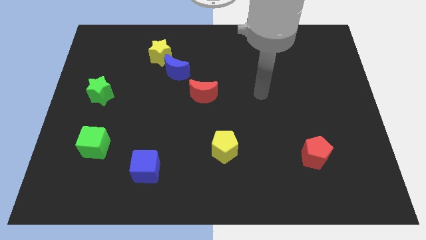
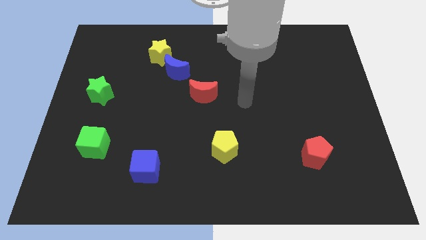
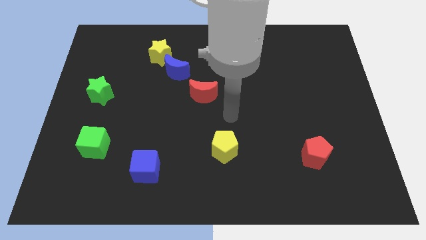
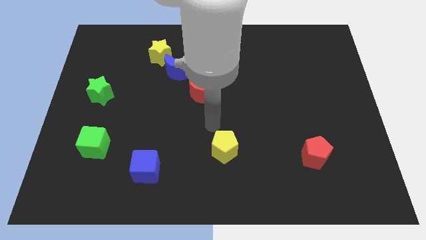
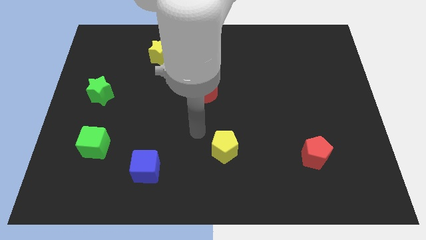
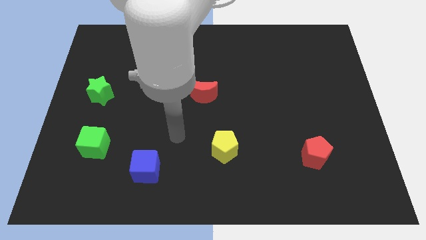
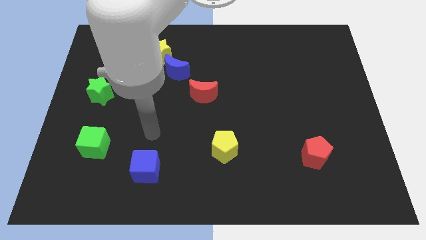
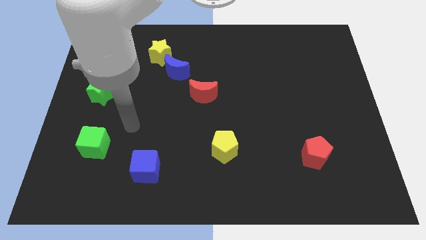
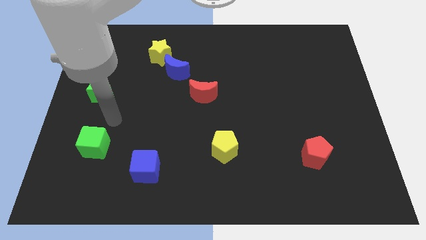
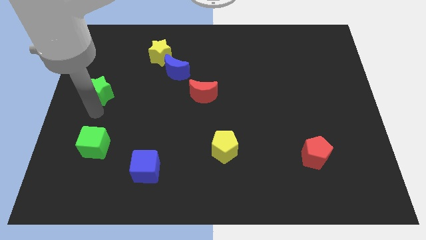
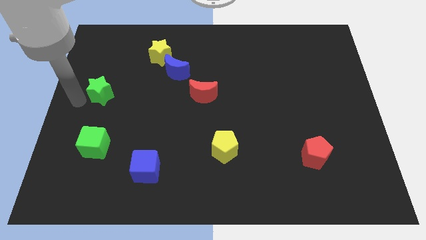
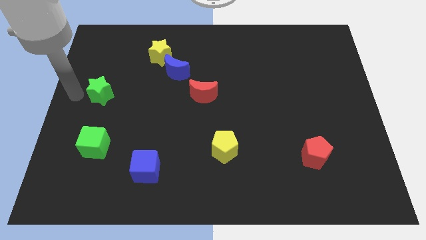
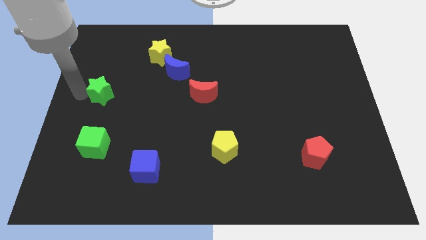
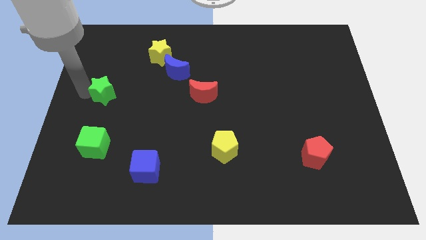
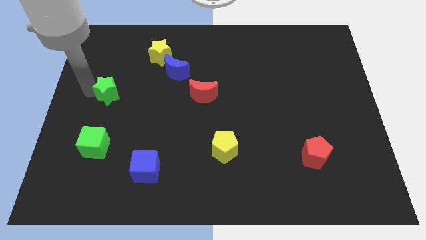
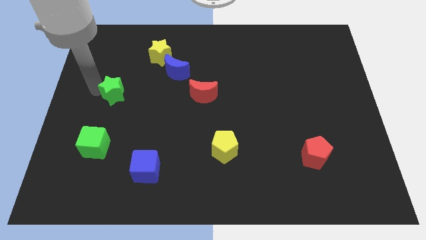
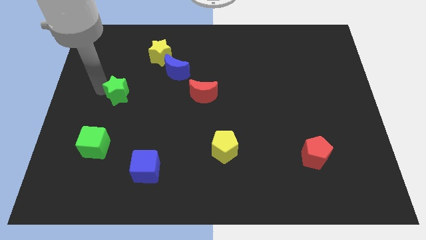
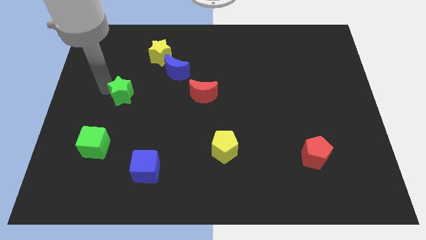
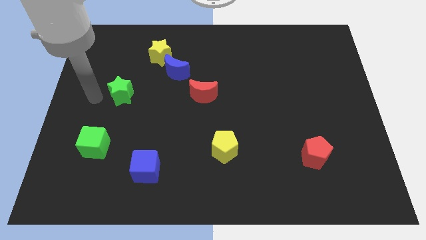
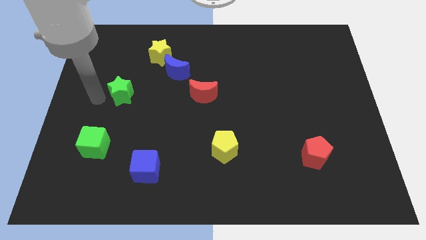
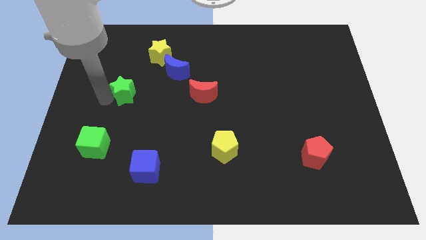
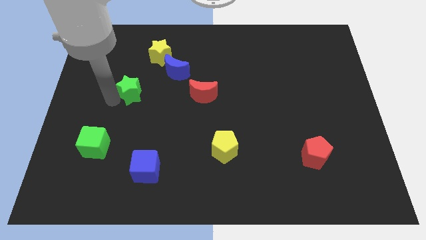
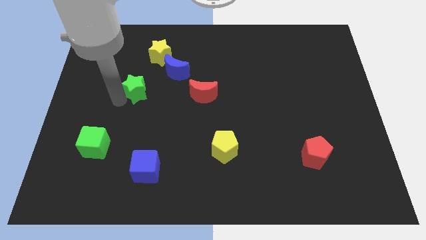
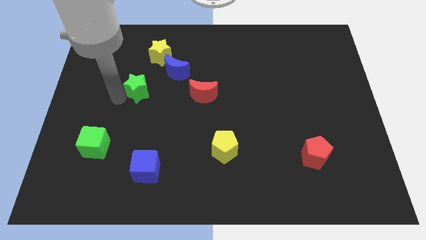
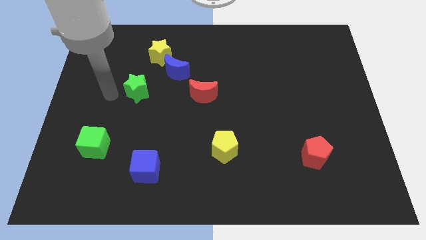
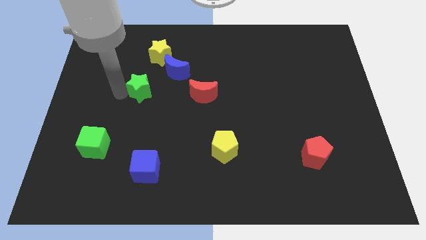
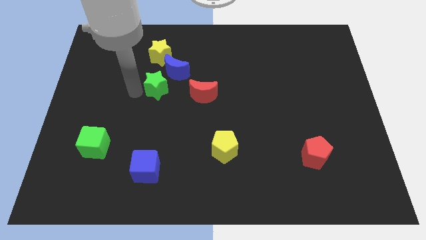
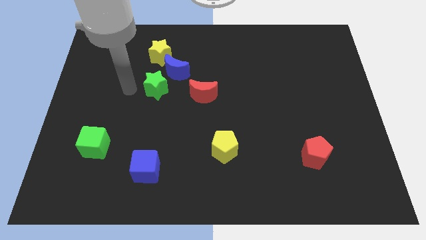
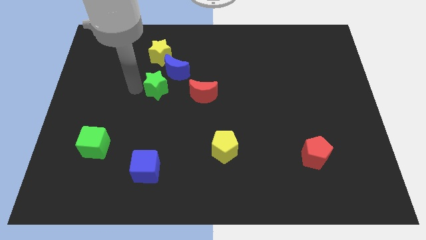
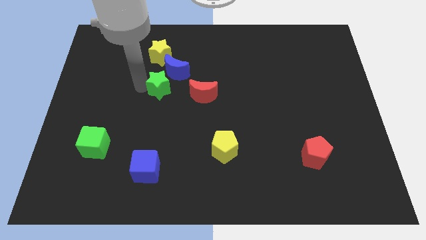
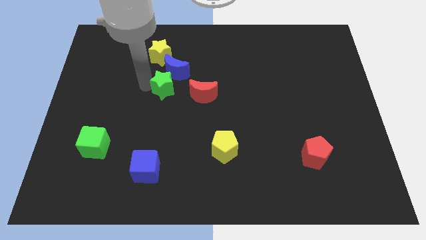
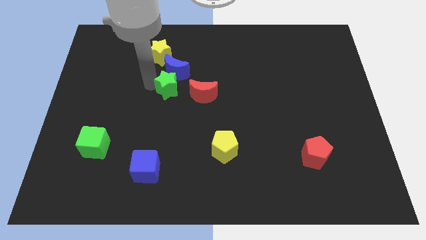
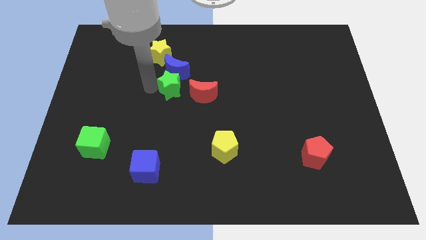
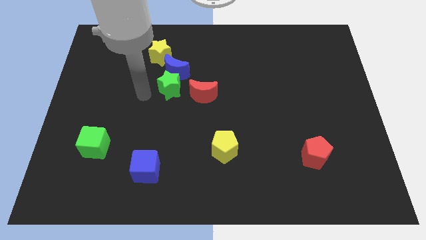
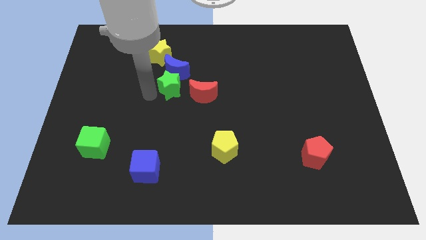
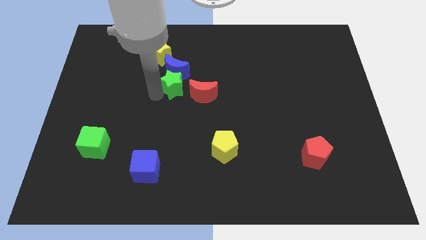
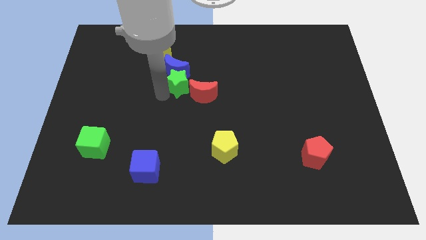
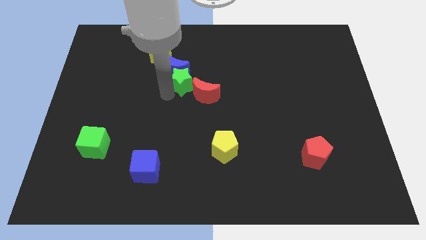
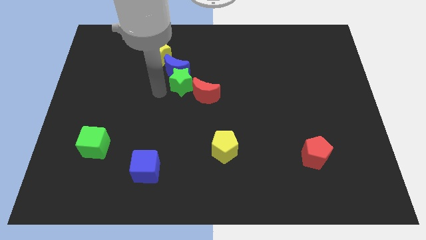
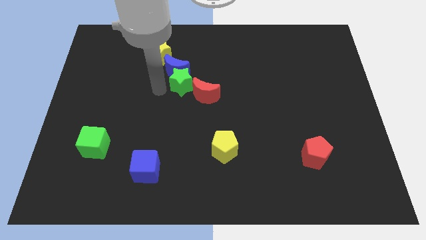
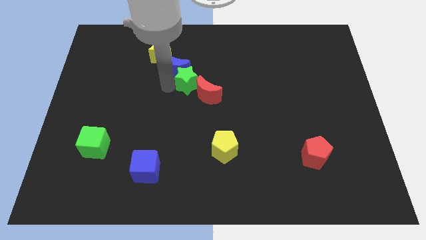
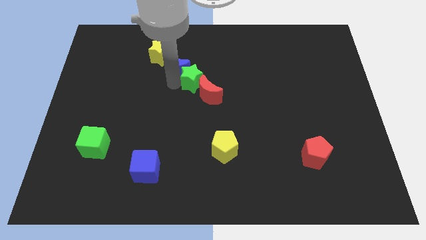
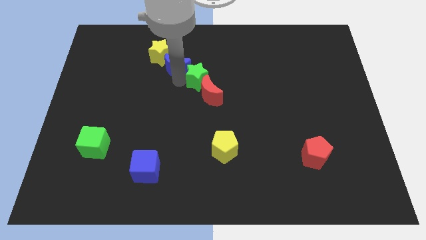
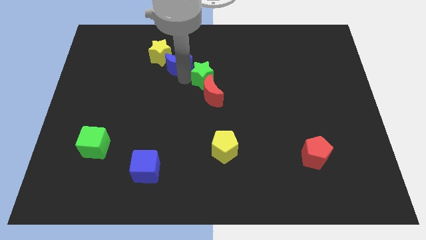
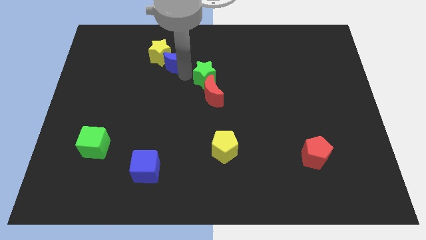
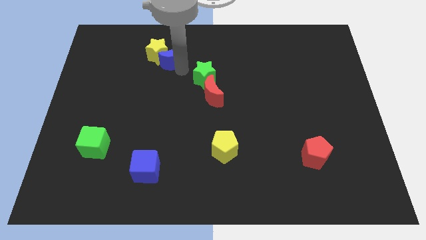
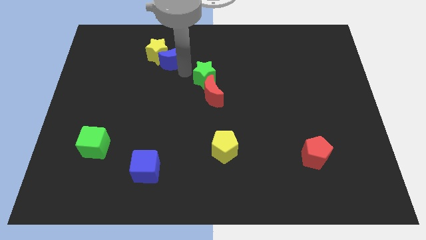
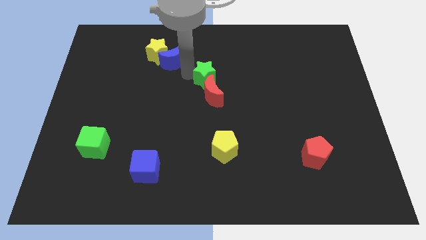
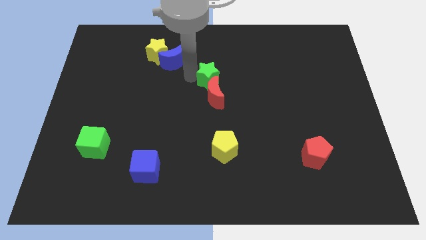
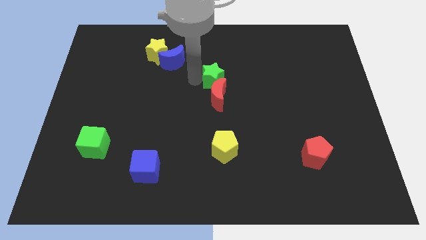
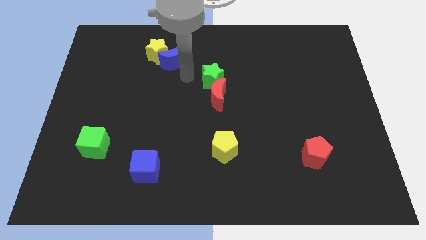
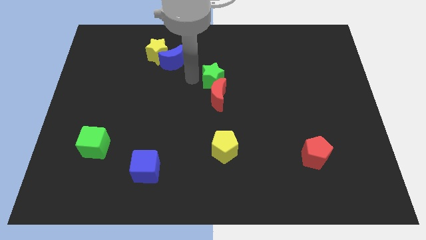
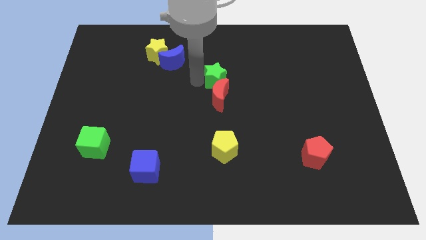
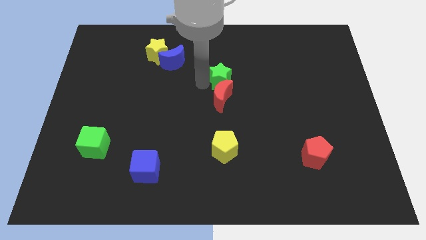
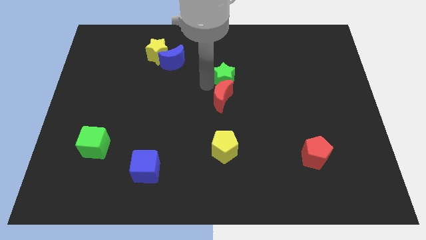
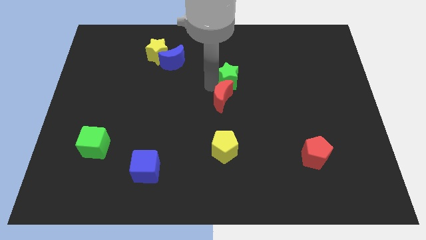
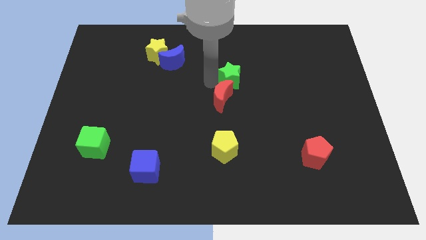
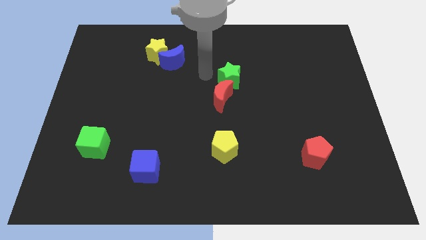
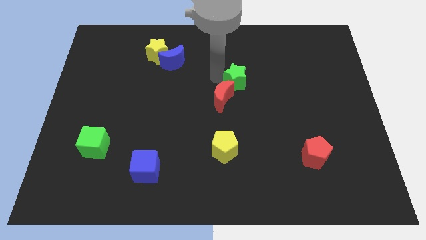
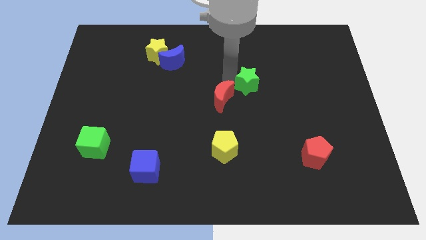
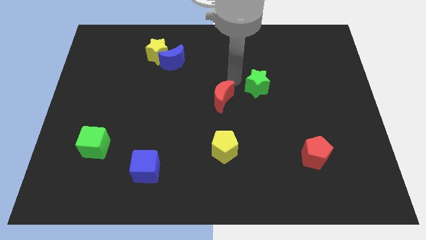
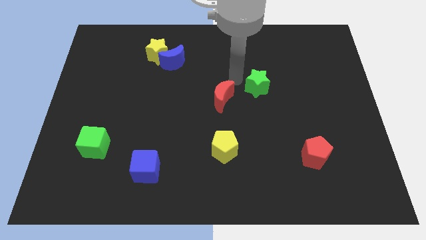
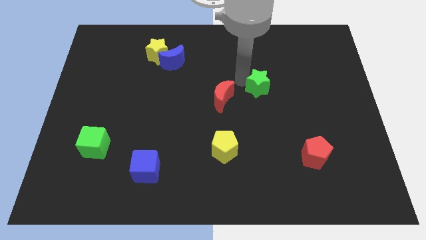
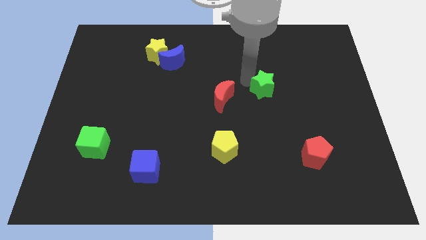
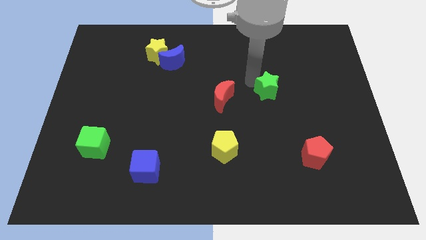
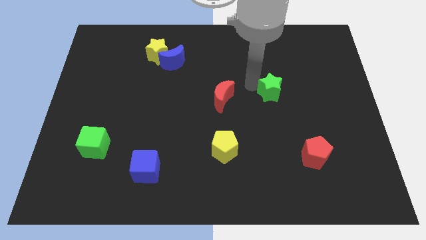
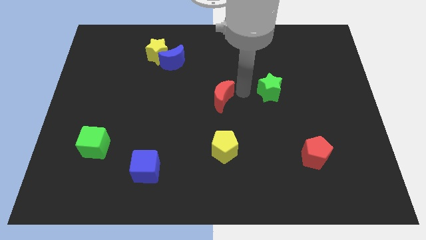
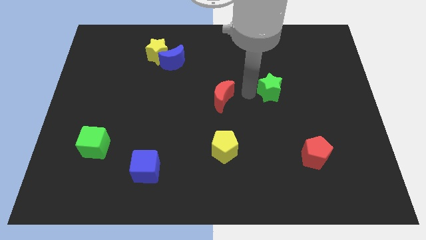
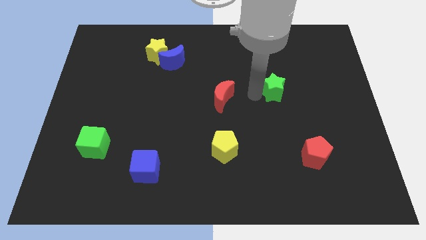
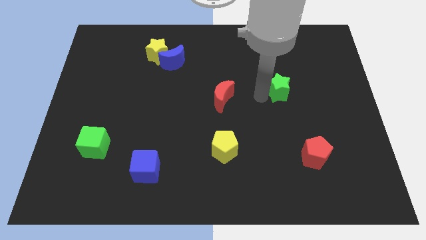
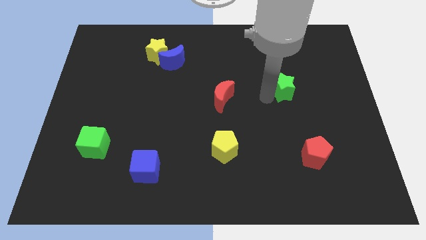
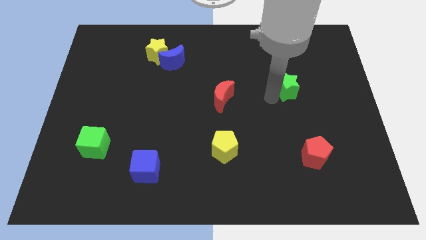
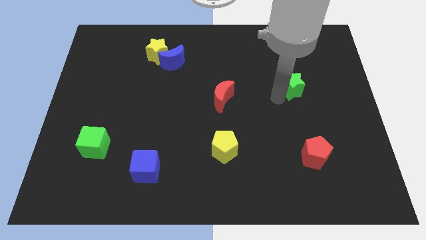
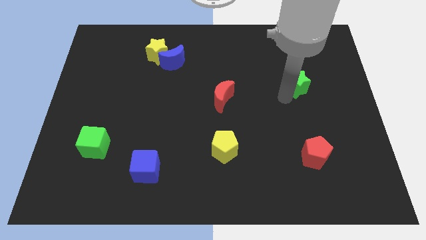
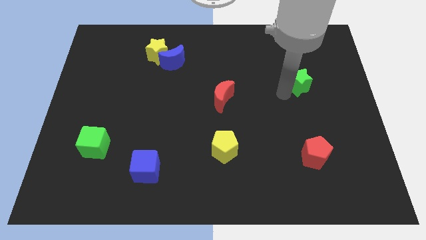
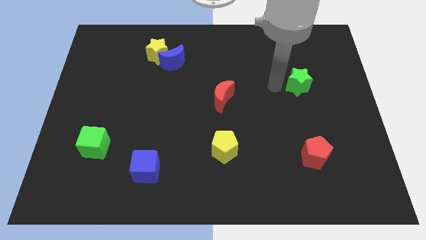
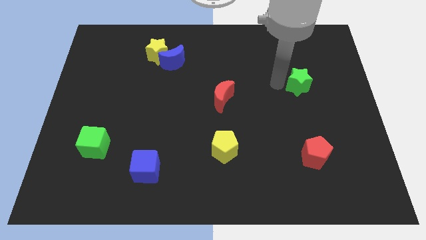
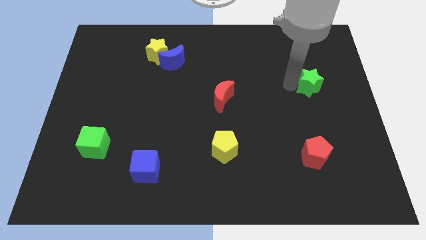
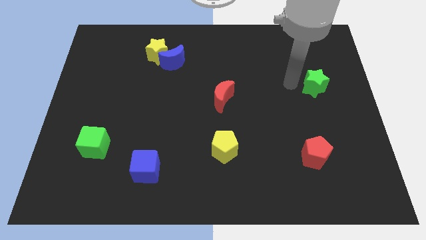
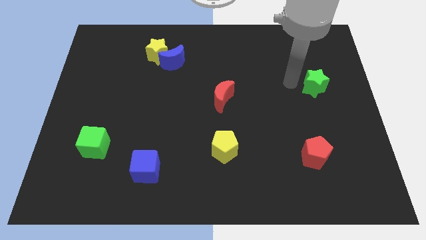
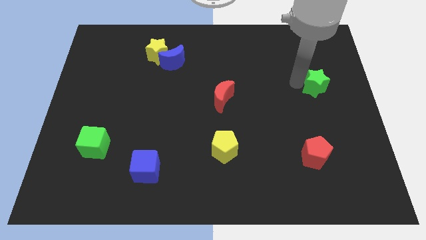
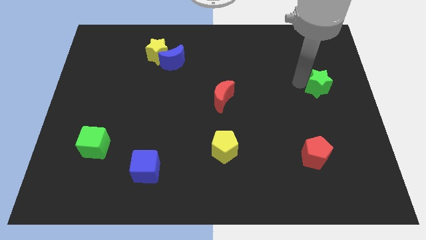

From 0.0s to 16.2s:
push the green star to the right side
